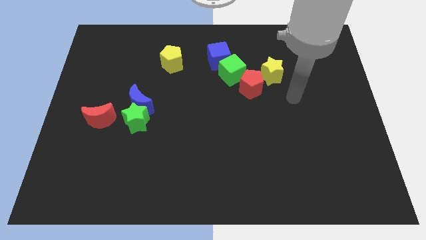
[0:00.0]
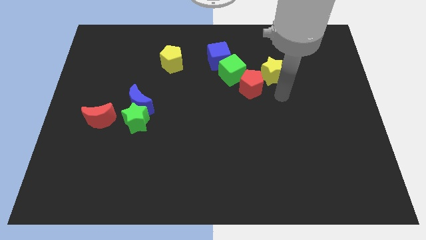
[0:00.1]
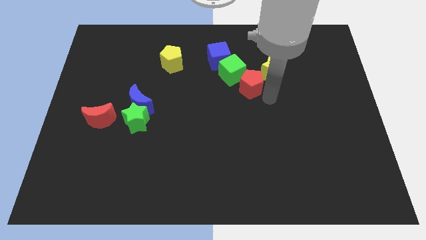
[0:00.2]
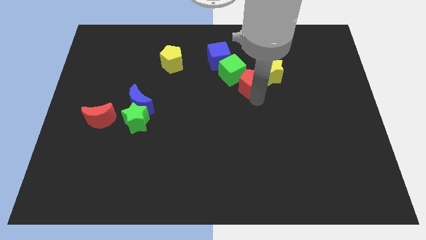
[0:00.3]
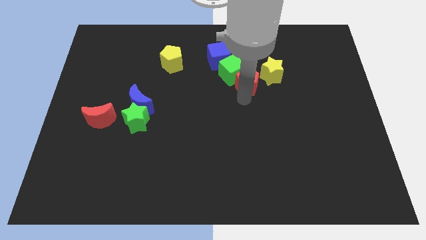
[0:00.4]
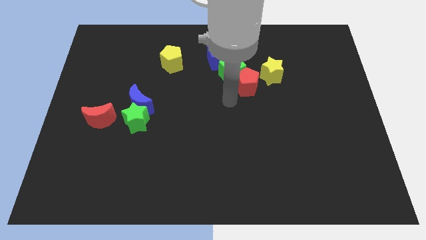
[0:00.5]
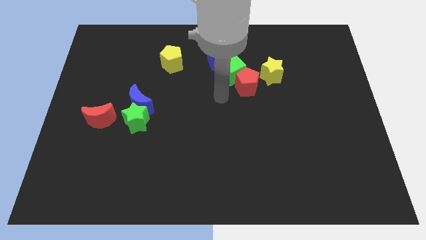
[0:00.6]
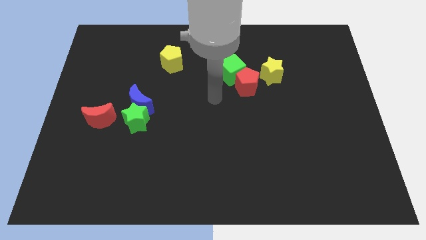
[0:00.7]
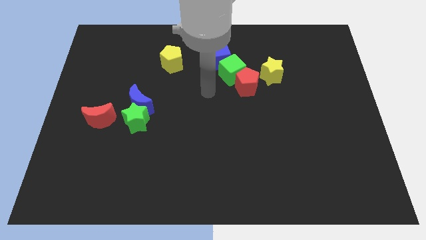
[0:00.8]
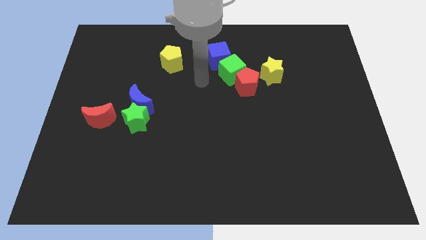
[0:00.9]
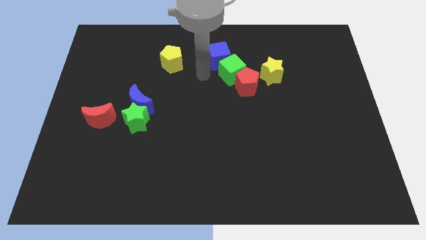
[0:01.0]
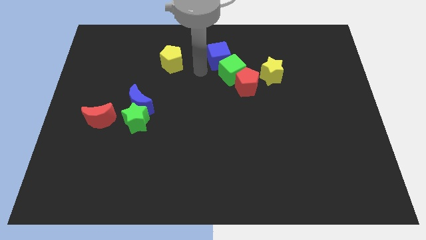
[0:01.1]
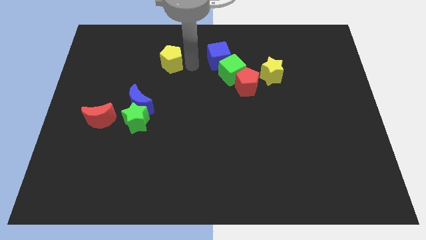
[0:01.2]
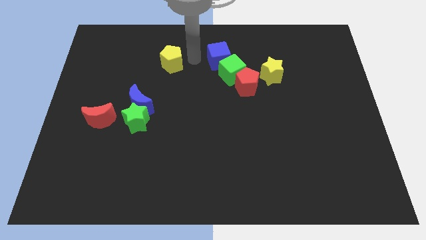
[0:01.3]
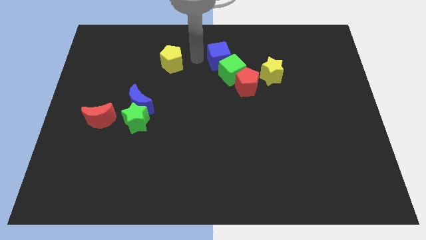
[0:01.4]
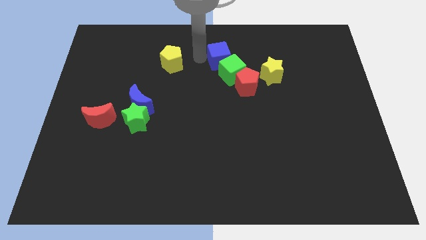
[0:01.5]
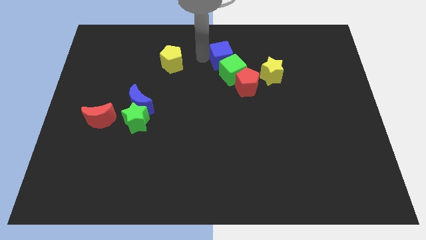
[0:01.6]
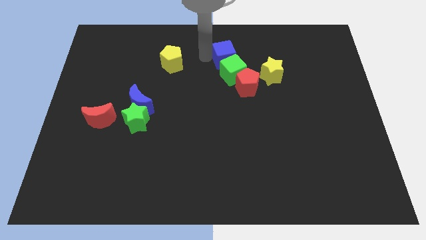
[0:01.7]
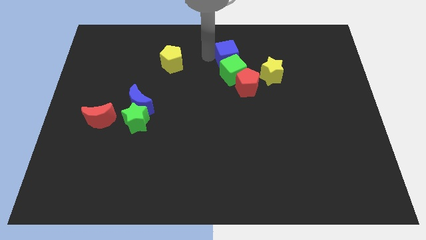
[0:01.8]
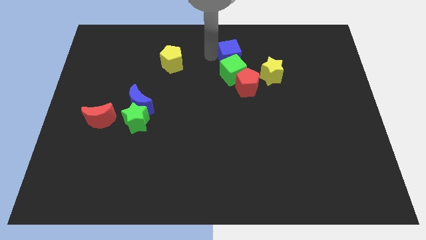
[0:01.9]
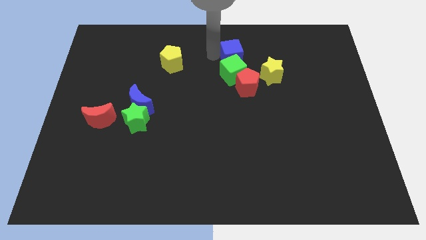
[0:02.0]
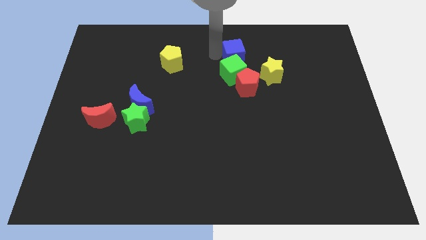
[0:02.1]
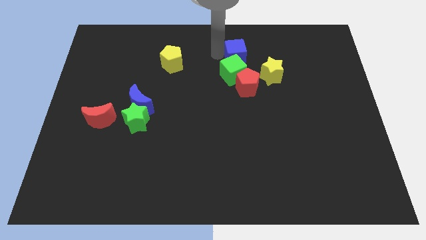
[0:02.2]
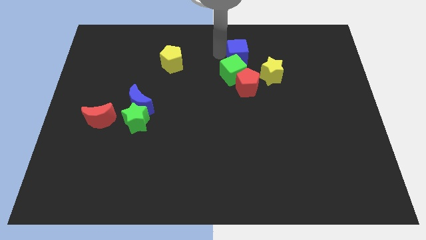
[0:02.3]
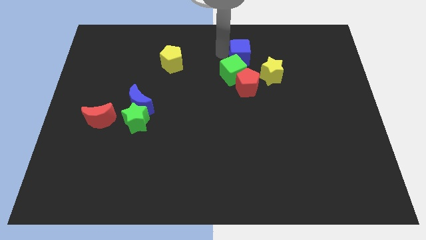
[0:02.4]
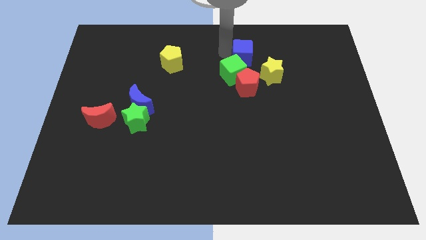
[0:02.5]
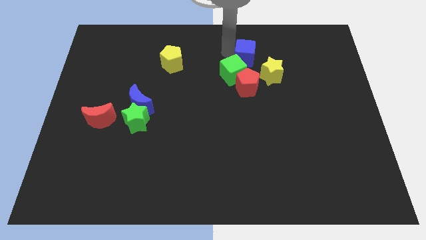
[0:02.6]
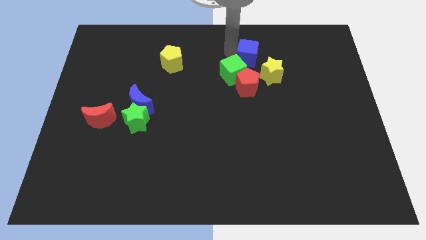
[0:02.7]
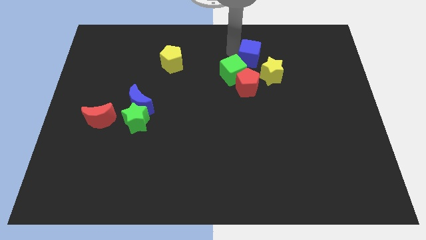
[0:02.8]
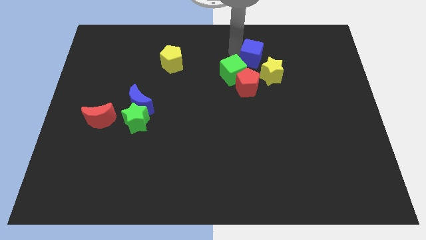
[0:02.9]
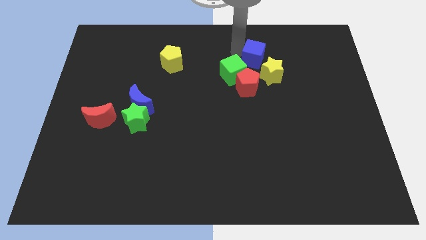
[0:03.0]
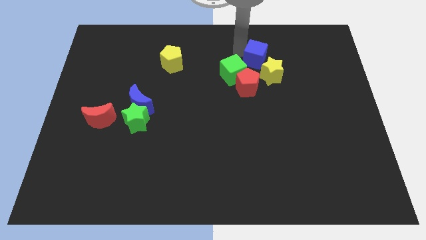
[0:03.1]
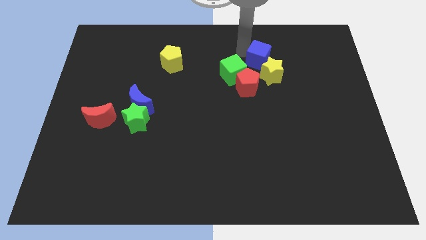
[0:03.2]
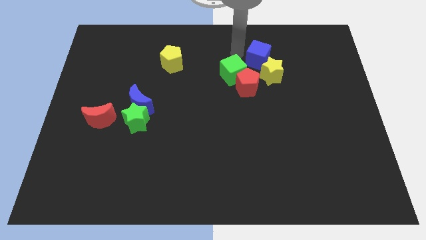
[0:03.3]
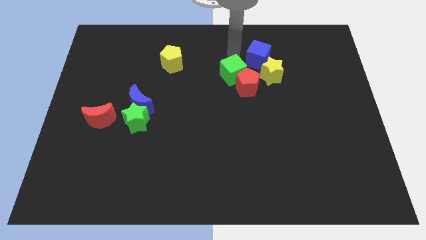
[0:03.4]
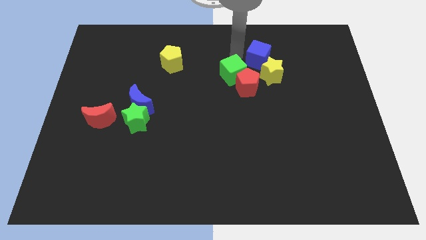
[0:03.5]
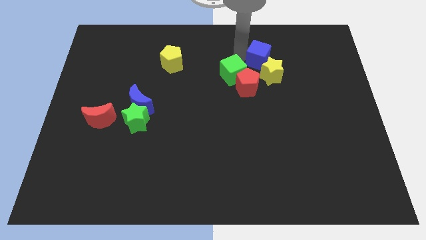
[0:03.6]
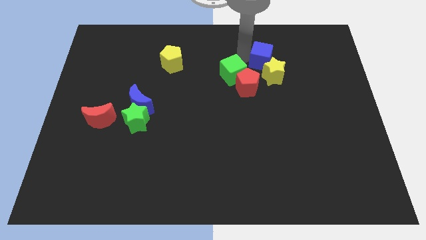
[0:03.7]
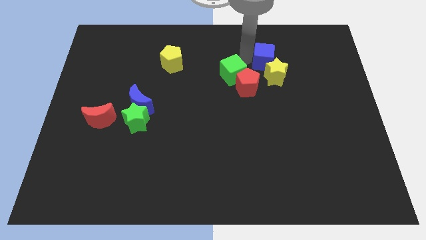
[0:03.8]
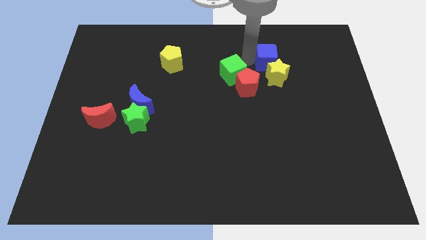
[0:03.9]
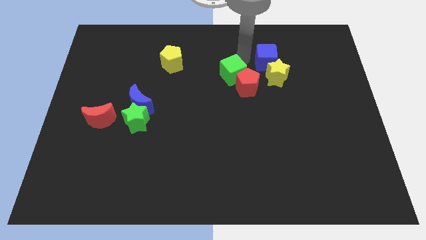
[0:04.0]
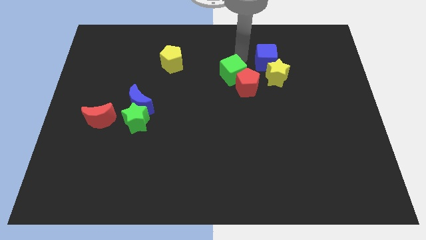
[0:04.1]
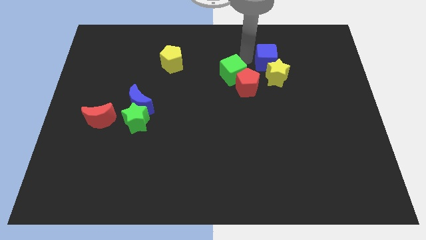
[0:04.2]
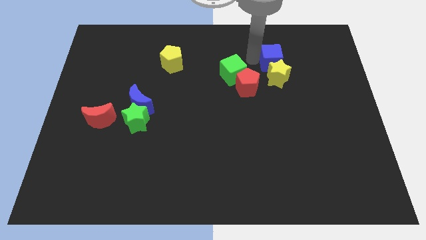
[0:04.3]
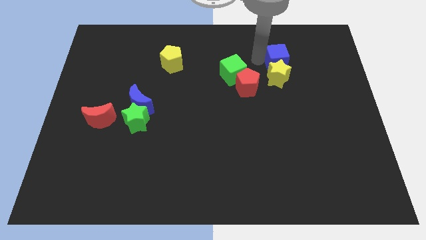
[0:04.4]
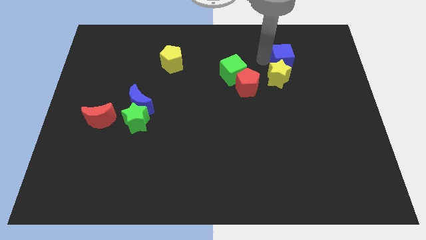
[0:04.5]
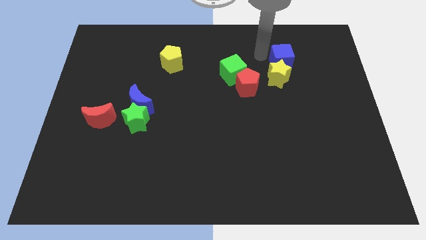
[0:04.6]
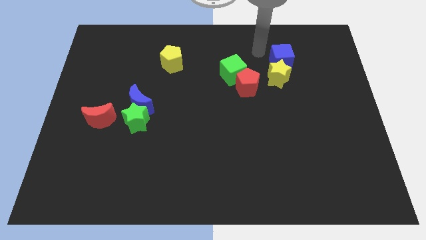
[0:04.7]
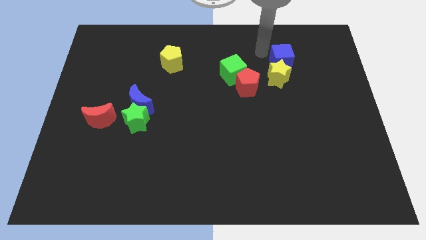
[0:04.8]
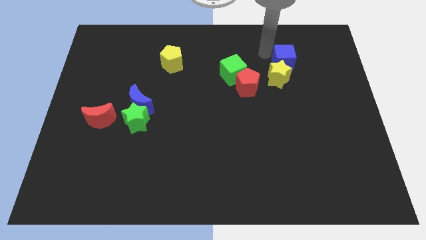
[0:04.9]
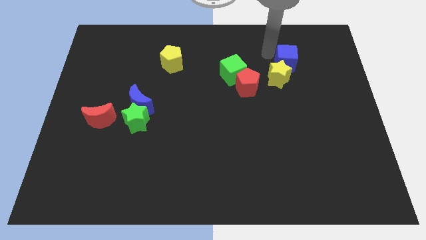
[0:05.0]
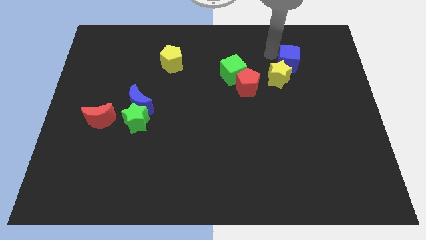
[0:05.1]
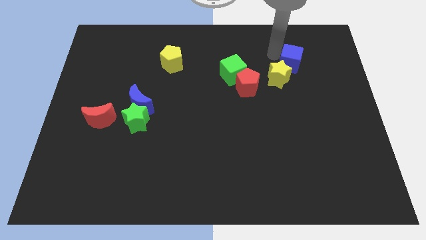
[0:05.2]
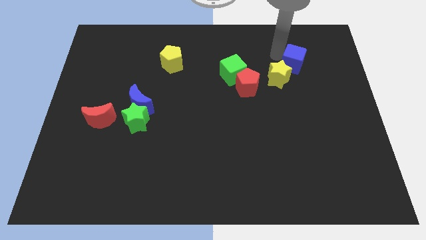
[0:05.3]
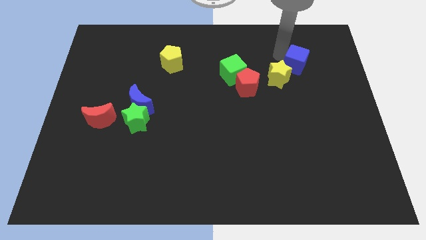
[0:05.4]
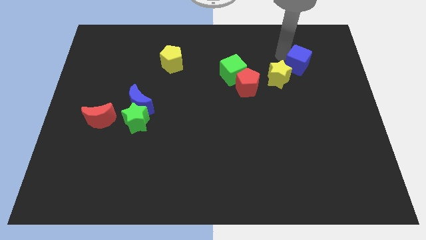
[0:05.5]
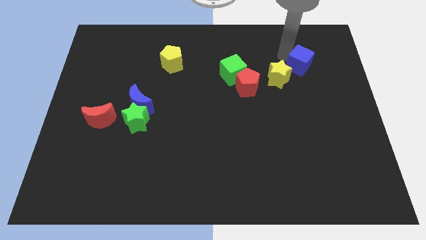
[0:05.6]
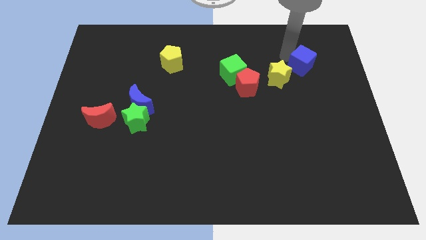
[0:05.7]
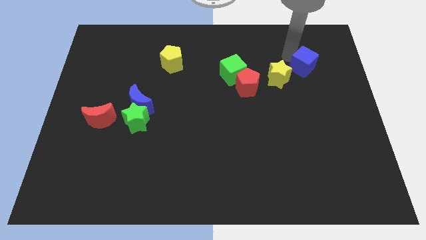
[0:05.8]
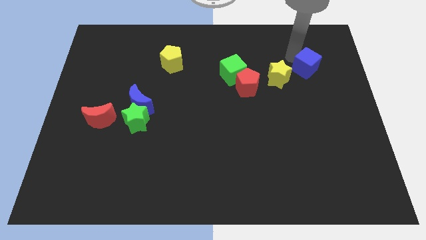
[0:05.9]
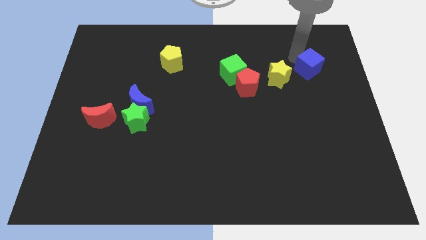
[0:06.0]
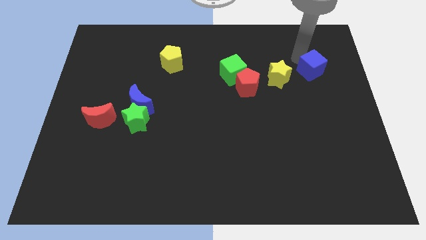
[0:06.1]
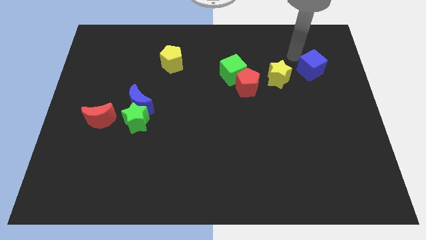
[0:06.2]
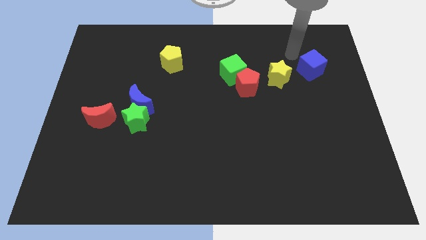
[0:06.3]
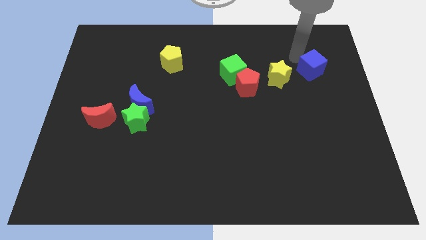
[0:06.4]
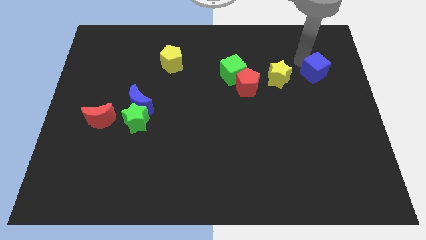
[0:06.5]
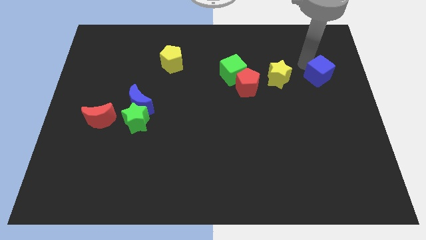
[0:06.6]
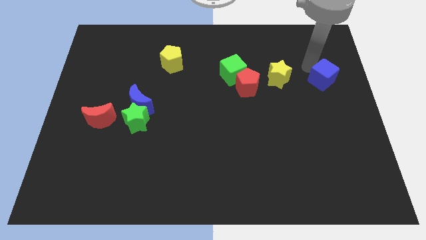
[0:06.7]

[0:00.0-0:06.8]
push the blue cube to the right side
